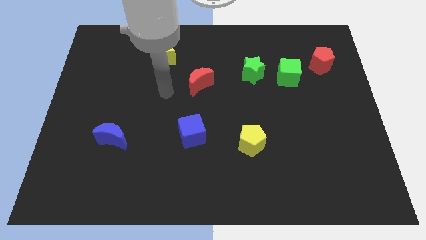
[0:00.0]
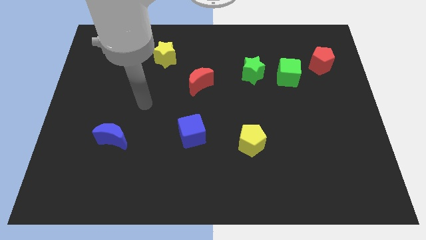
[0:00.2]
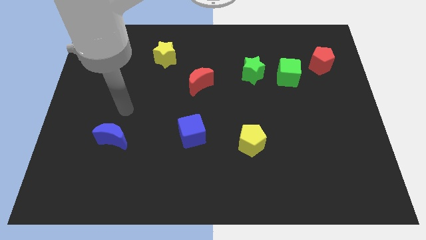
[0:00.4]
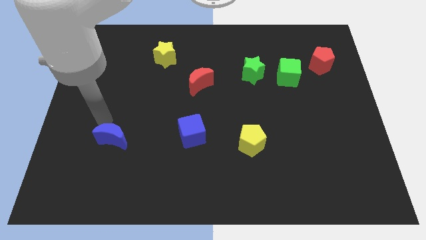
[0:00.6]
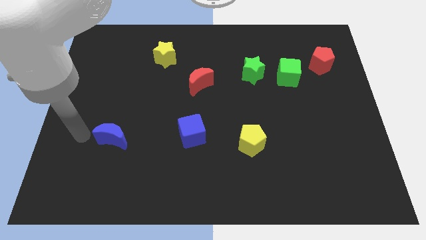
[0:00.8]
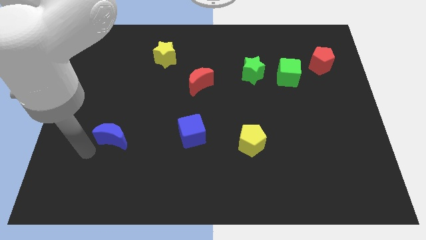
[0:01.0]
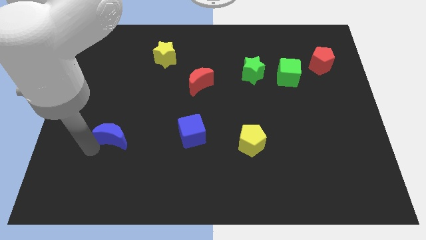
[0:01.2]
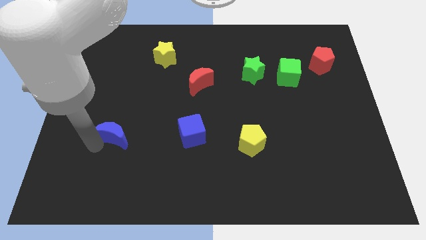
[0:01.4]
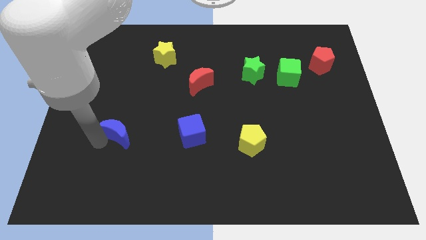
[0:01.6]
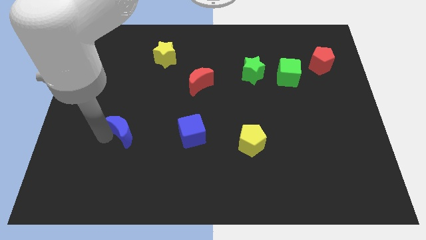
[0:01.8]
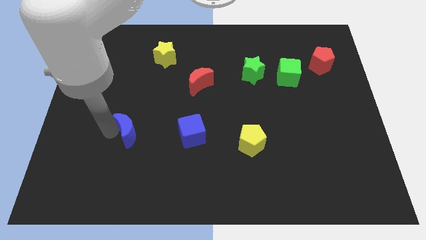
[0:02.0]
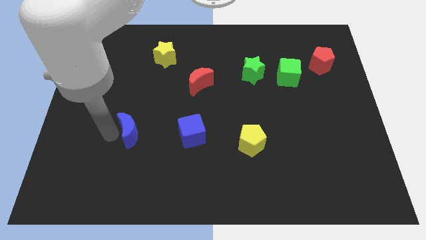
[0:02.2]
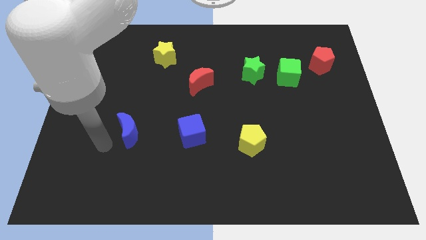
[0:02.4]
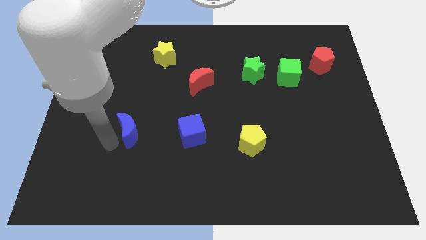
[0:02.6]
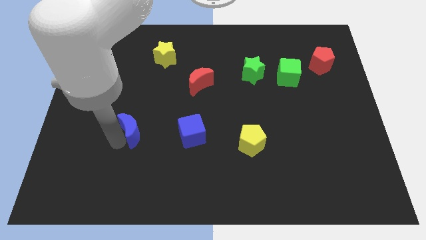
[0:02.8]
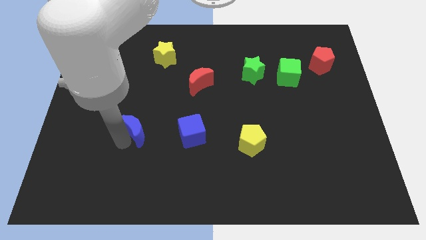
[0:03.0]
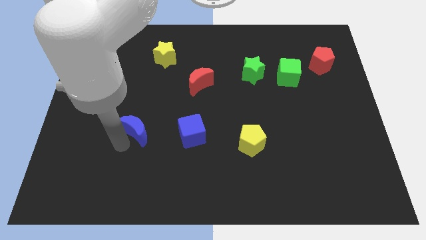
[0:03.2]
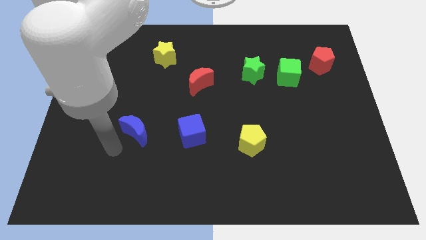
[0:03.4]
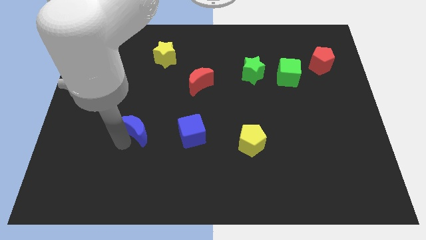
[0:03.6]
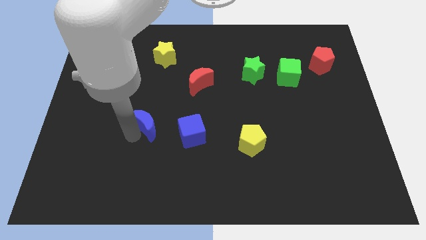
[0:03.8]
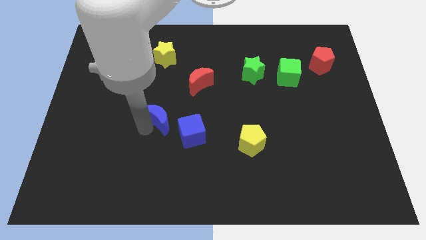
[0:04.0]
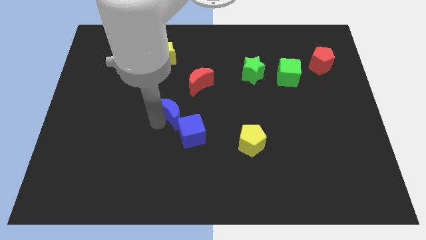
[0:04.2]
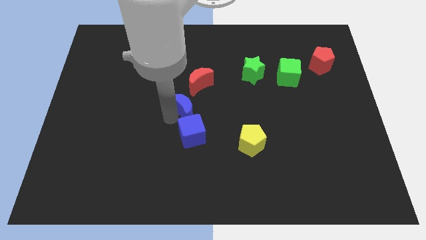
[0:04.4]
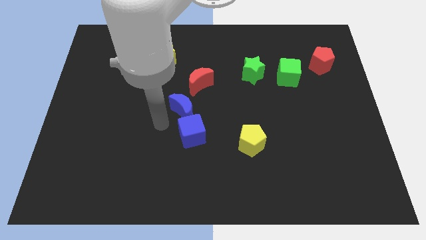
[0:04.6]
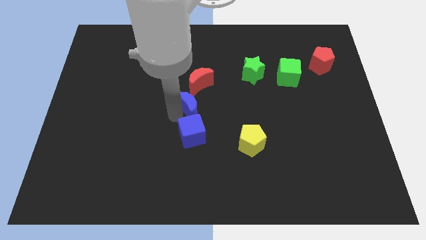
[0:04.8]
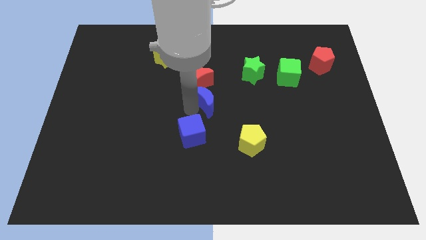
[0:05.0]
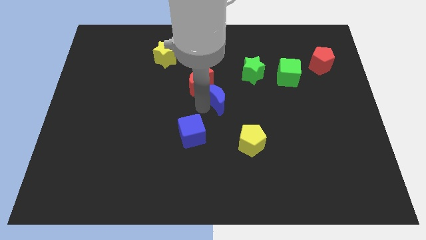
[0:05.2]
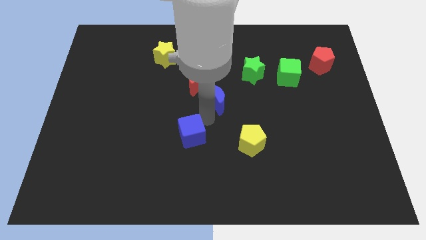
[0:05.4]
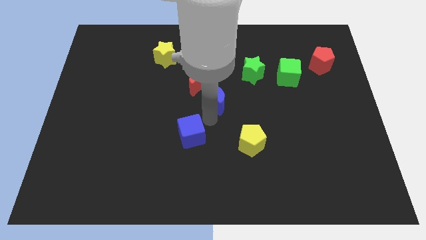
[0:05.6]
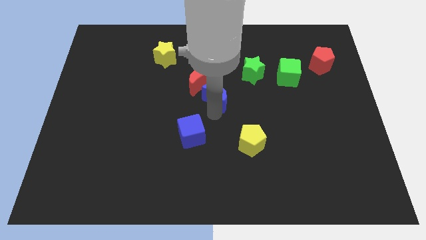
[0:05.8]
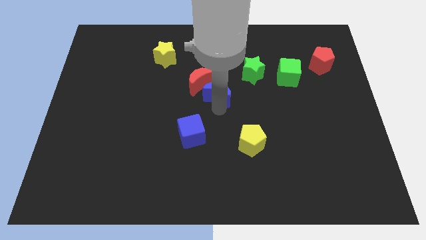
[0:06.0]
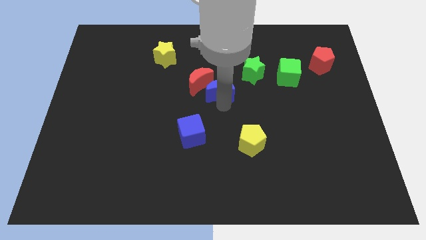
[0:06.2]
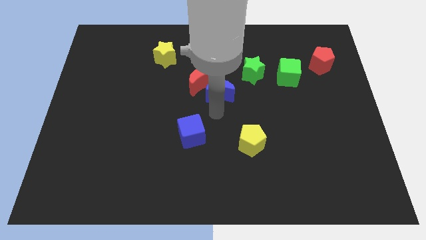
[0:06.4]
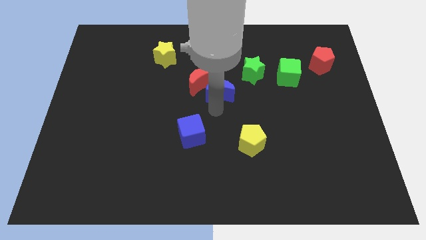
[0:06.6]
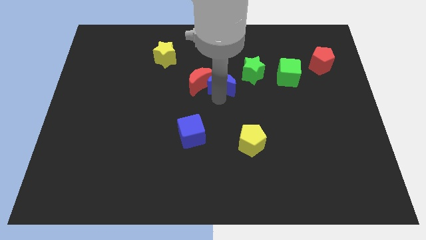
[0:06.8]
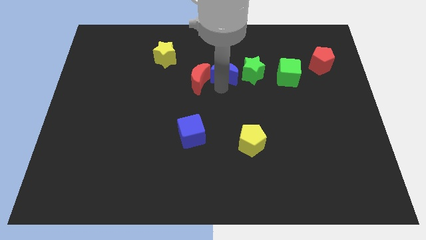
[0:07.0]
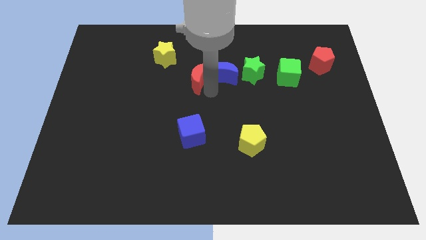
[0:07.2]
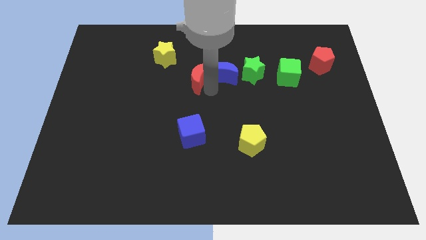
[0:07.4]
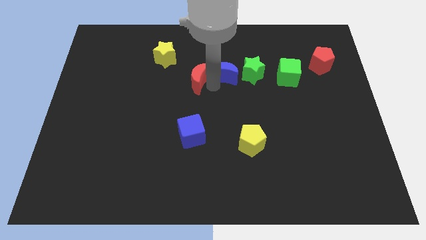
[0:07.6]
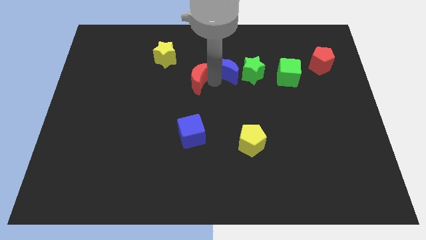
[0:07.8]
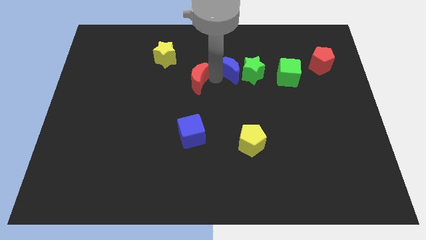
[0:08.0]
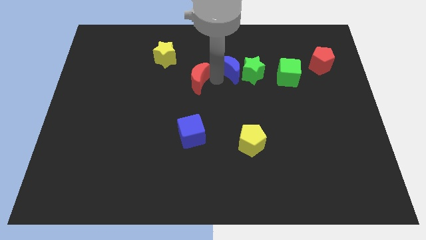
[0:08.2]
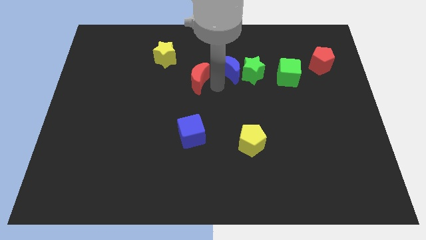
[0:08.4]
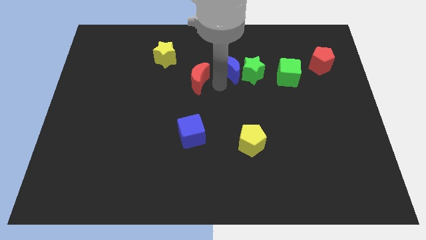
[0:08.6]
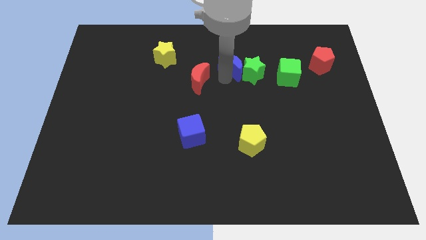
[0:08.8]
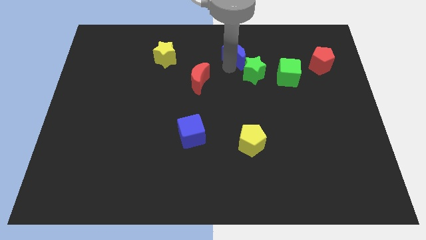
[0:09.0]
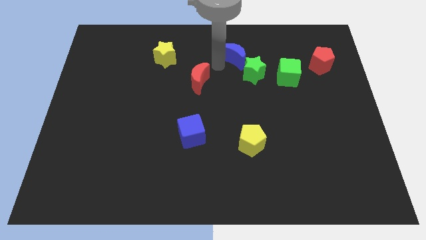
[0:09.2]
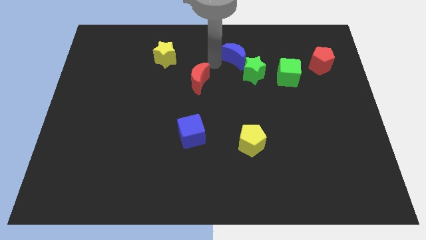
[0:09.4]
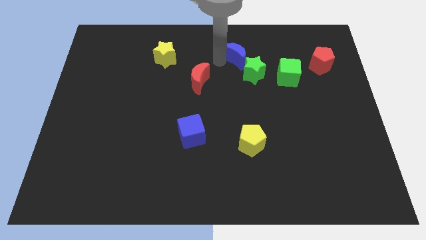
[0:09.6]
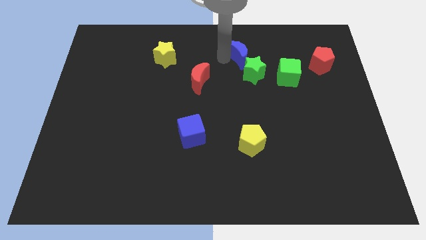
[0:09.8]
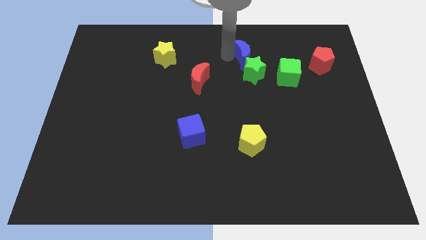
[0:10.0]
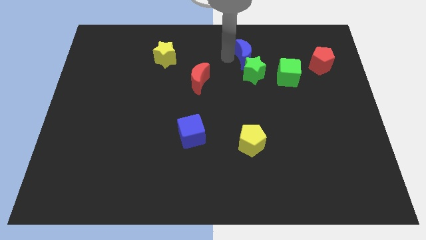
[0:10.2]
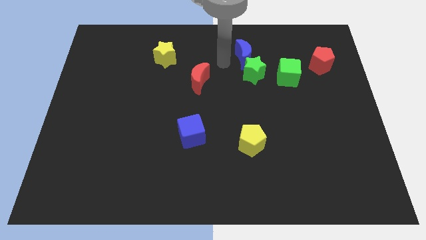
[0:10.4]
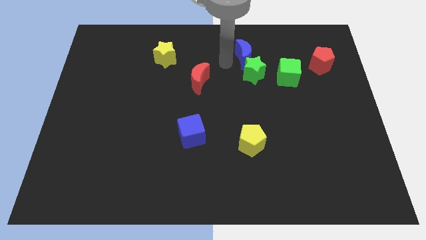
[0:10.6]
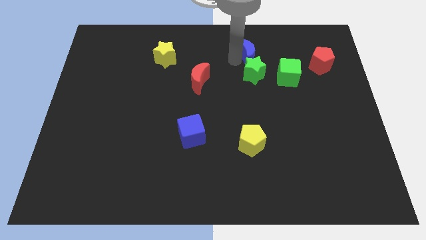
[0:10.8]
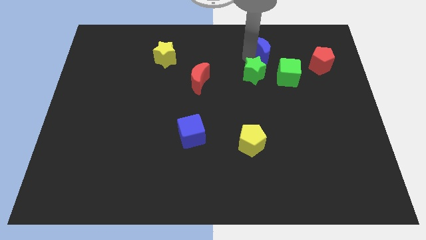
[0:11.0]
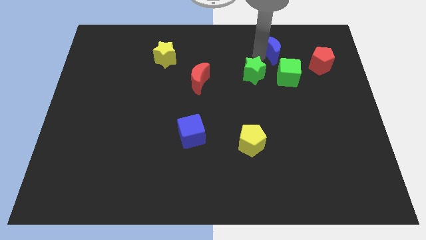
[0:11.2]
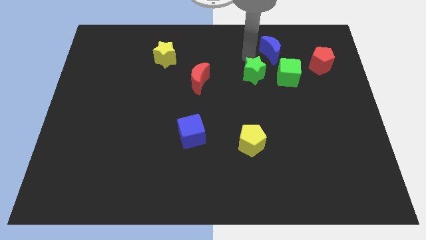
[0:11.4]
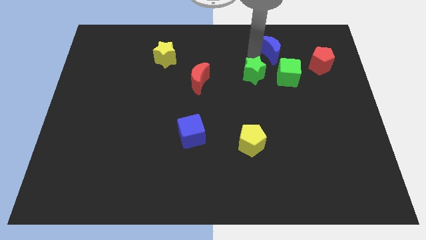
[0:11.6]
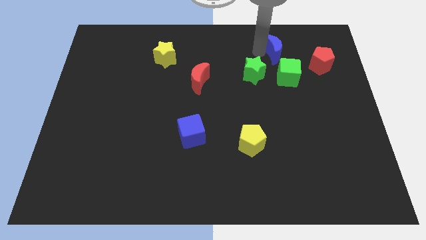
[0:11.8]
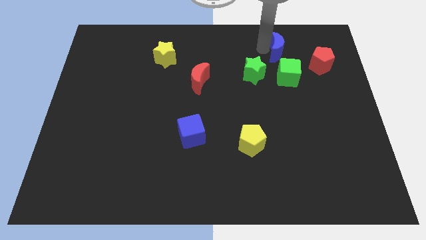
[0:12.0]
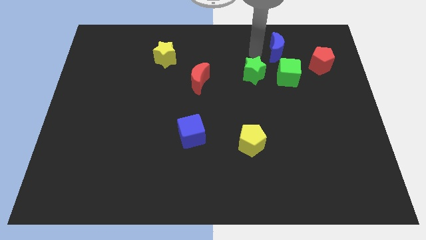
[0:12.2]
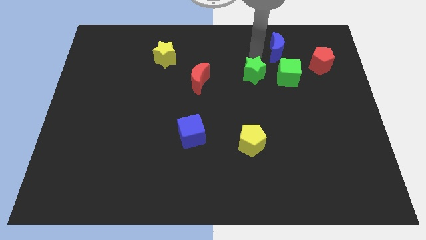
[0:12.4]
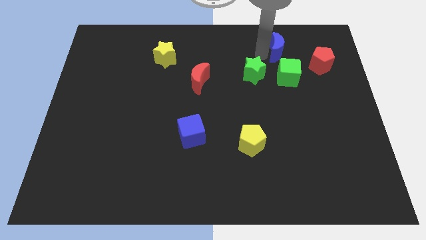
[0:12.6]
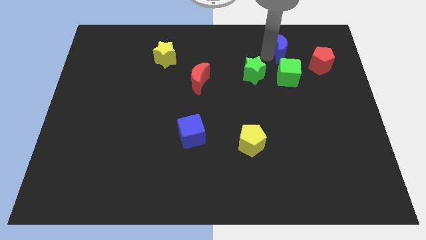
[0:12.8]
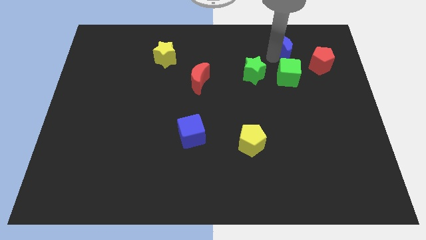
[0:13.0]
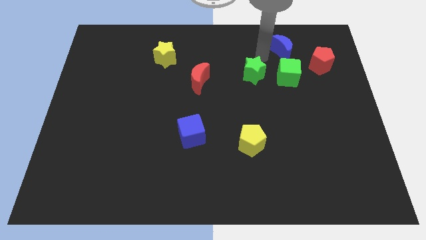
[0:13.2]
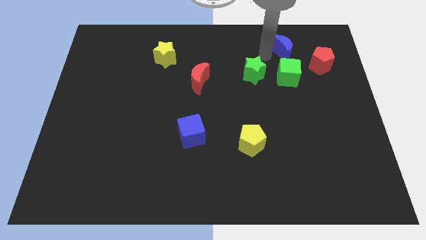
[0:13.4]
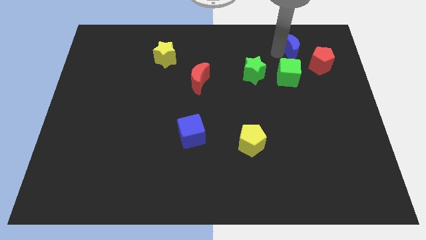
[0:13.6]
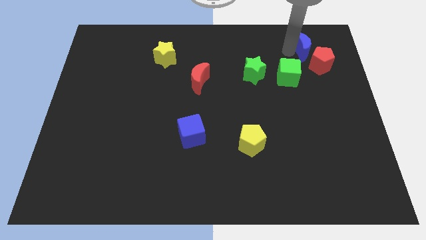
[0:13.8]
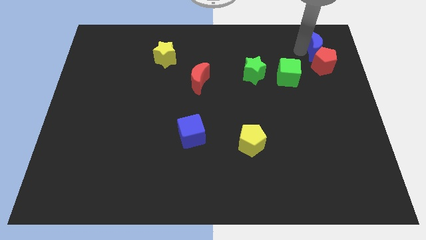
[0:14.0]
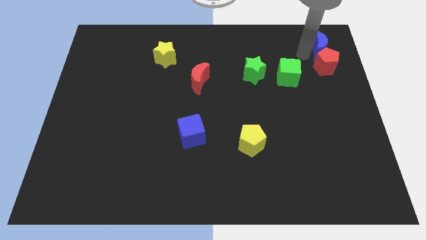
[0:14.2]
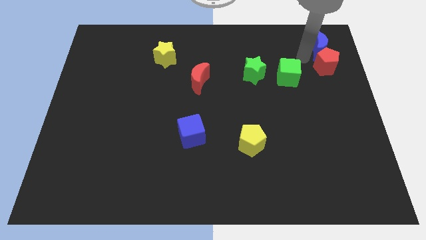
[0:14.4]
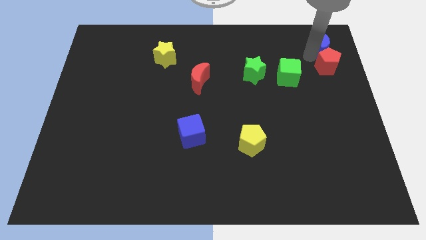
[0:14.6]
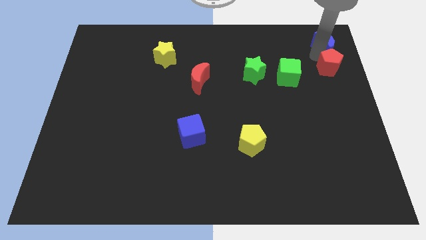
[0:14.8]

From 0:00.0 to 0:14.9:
move the blue moon to the top right corner
